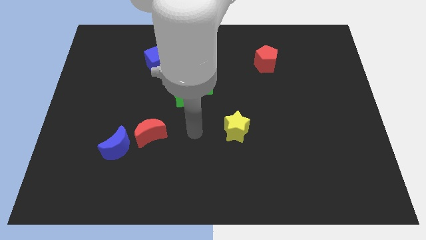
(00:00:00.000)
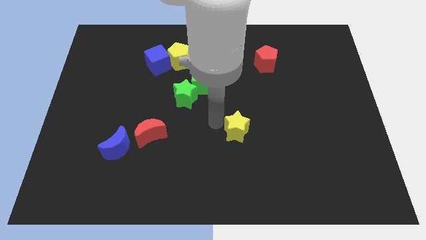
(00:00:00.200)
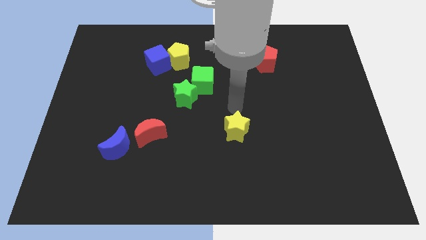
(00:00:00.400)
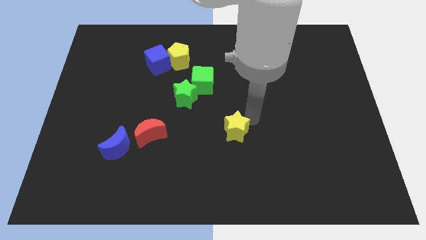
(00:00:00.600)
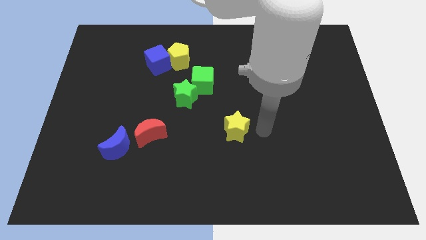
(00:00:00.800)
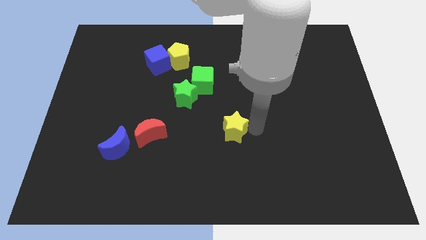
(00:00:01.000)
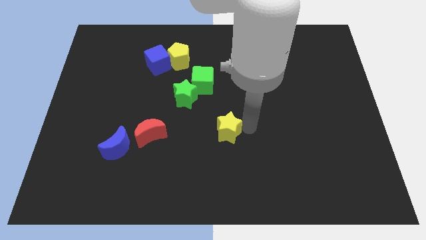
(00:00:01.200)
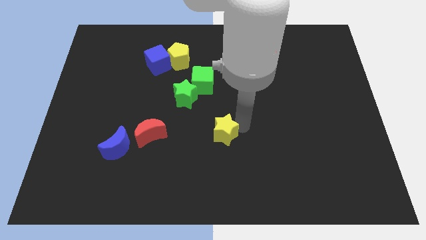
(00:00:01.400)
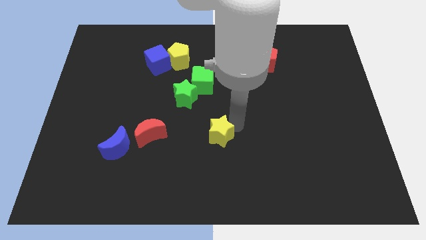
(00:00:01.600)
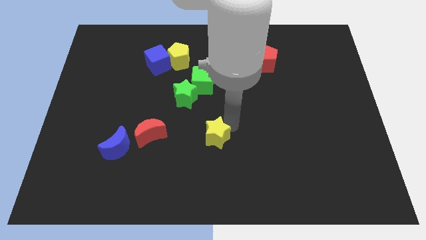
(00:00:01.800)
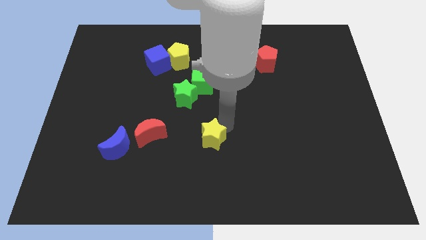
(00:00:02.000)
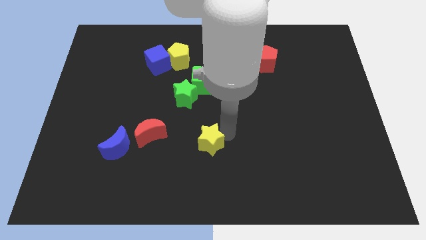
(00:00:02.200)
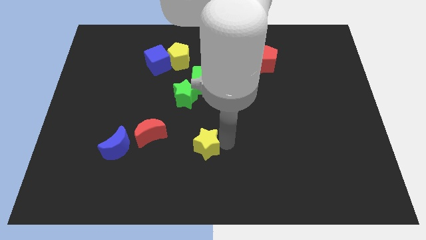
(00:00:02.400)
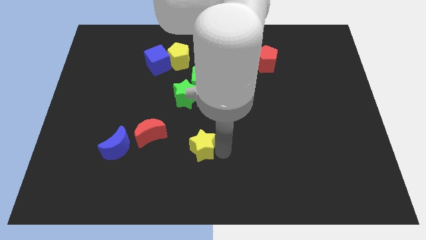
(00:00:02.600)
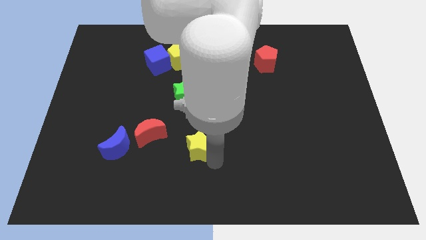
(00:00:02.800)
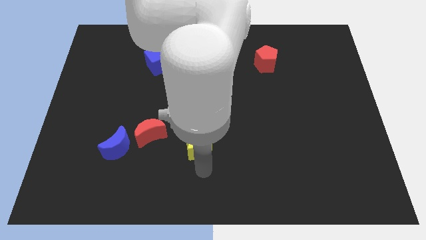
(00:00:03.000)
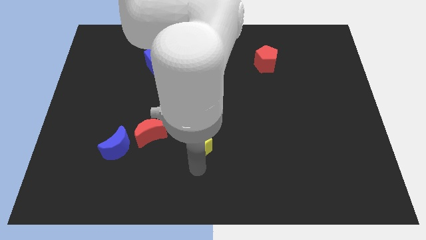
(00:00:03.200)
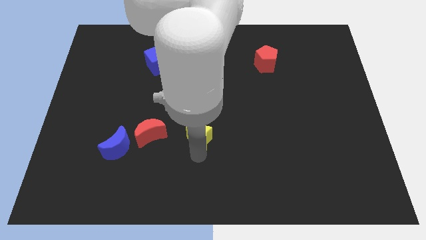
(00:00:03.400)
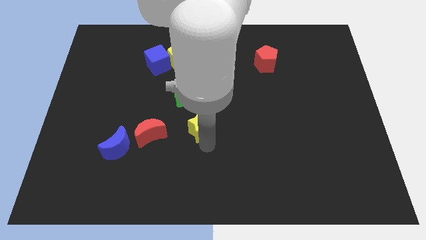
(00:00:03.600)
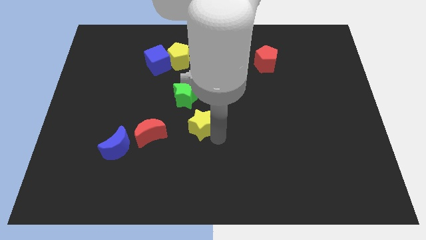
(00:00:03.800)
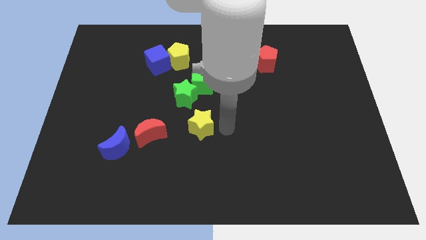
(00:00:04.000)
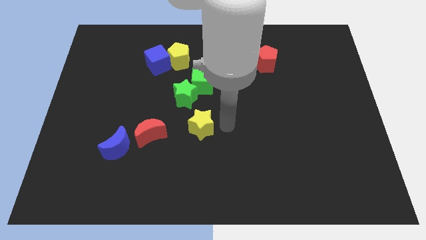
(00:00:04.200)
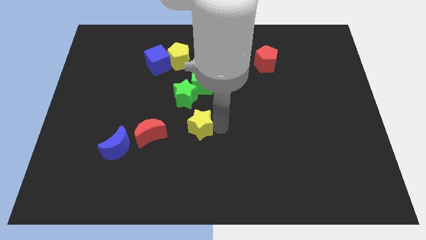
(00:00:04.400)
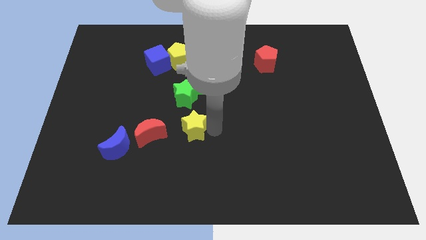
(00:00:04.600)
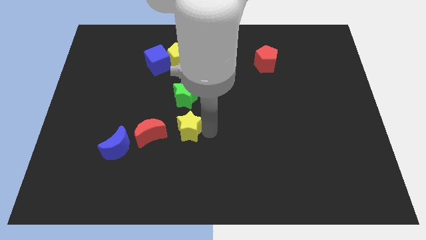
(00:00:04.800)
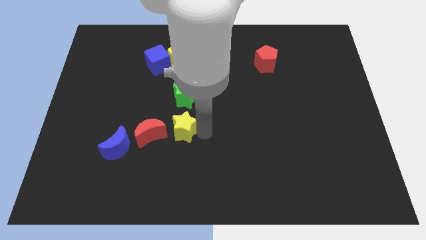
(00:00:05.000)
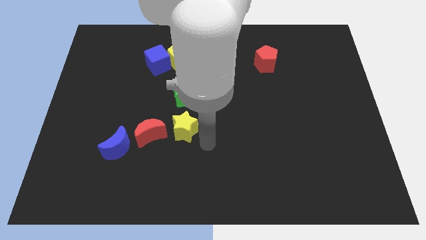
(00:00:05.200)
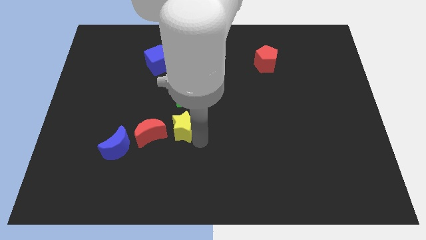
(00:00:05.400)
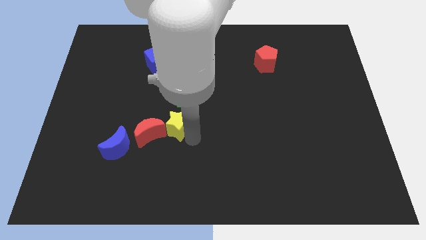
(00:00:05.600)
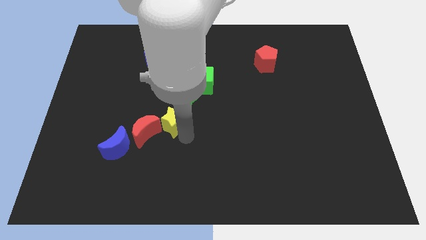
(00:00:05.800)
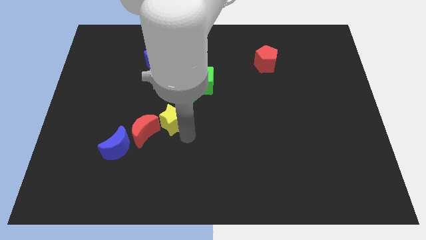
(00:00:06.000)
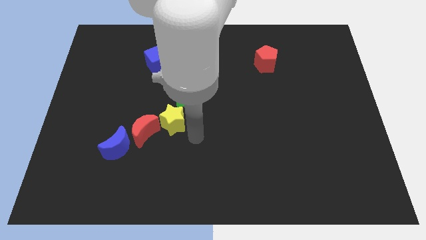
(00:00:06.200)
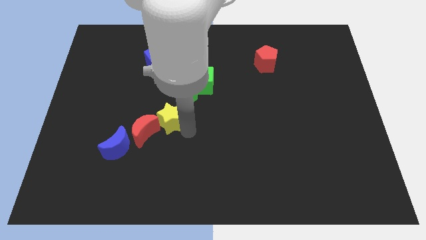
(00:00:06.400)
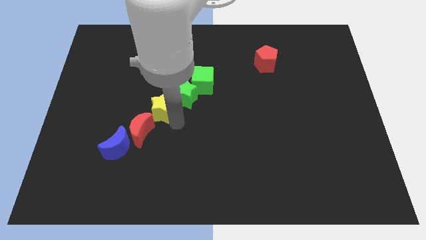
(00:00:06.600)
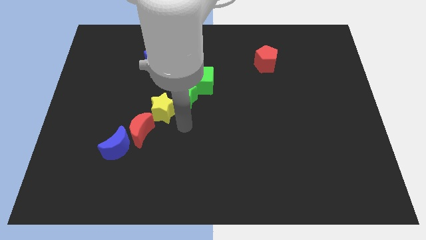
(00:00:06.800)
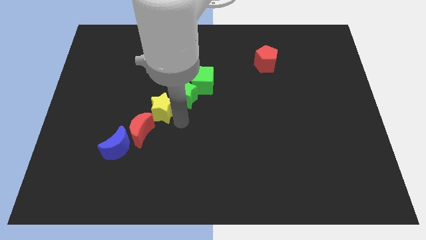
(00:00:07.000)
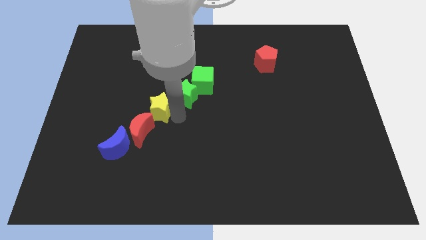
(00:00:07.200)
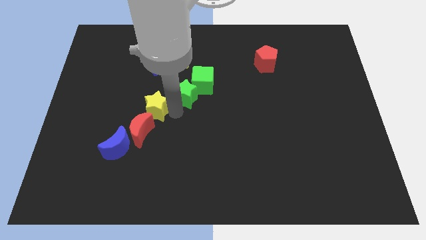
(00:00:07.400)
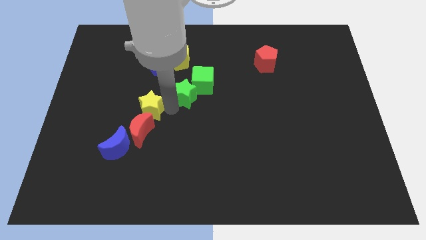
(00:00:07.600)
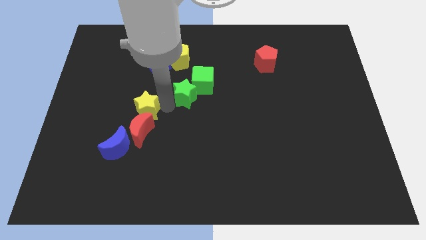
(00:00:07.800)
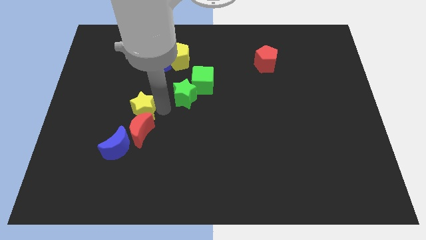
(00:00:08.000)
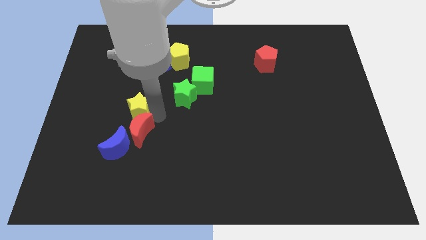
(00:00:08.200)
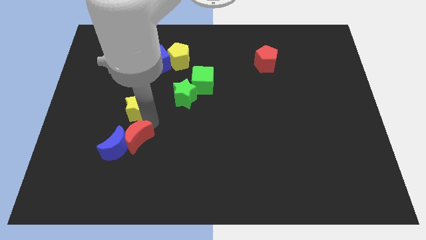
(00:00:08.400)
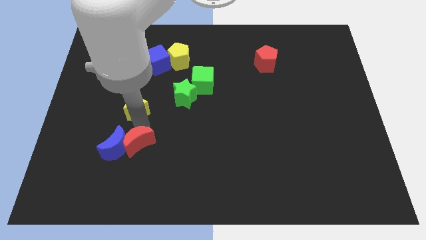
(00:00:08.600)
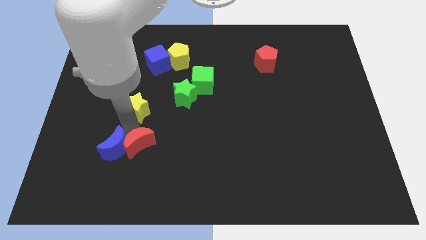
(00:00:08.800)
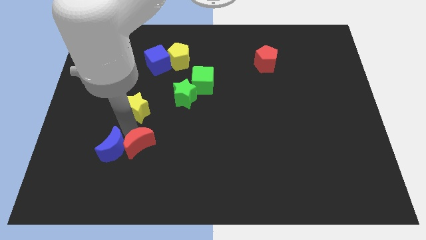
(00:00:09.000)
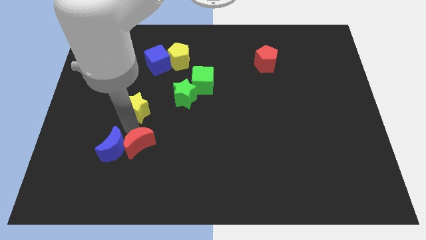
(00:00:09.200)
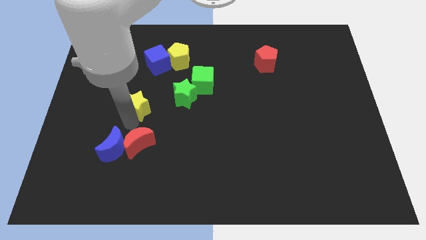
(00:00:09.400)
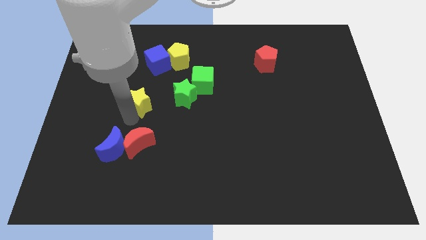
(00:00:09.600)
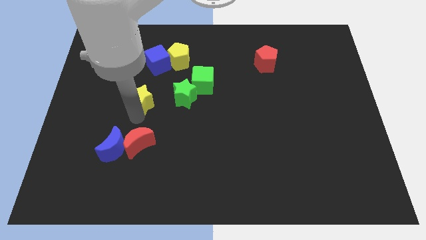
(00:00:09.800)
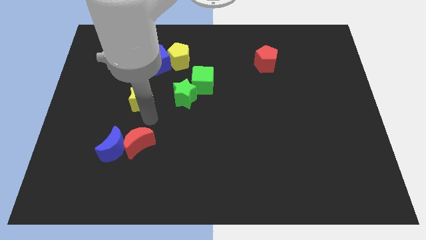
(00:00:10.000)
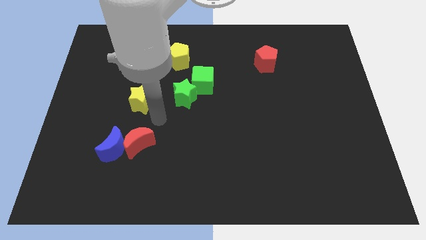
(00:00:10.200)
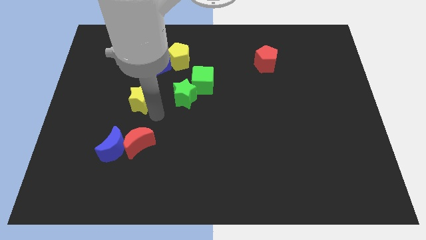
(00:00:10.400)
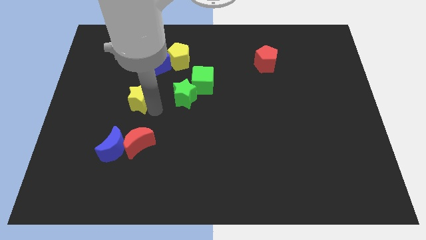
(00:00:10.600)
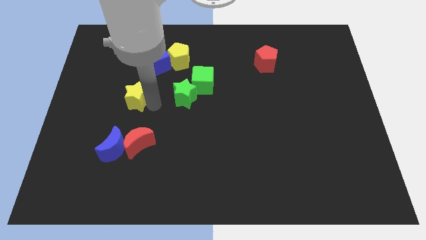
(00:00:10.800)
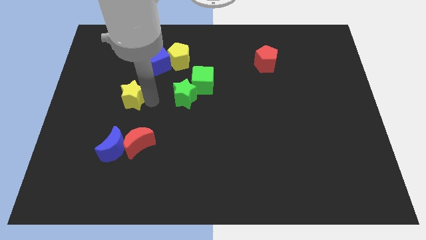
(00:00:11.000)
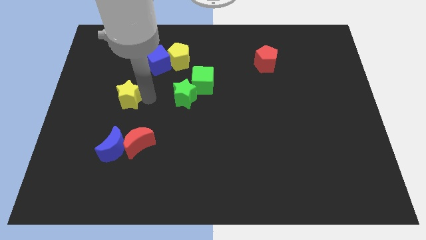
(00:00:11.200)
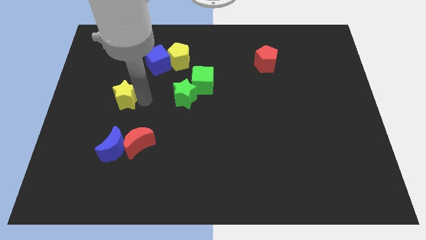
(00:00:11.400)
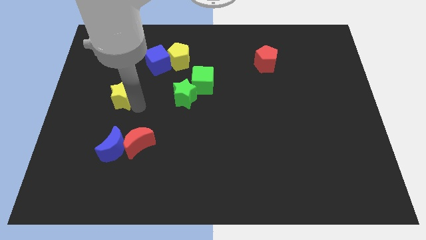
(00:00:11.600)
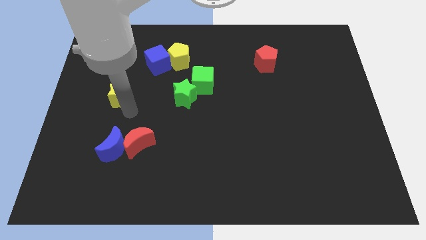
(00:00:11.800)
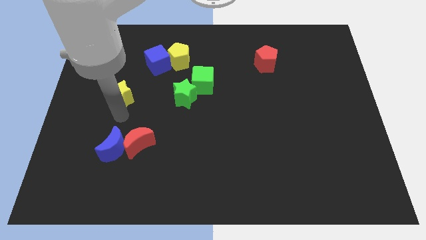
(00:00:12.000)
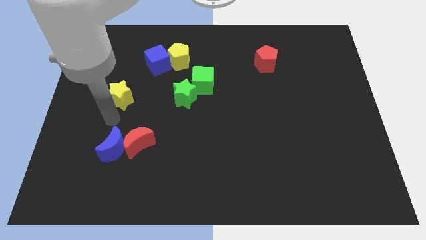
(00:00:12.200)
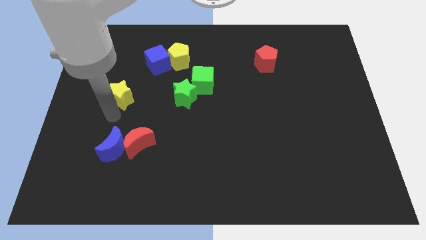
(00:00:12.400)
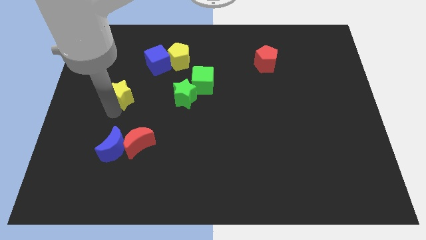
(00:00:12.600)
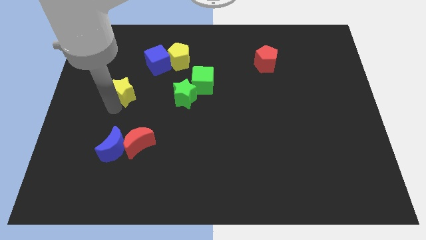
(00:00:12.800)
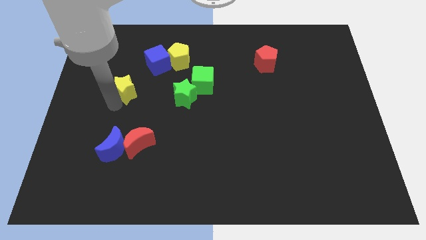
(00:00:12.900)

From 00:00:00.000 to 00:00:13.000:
push the yellow star diagonally upwards and to the left

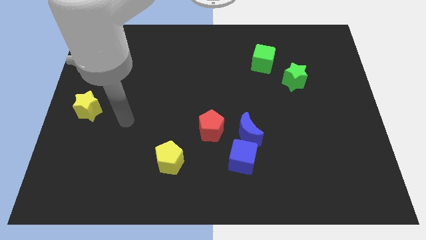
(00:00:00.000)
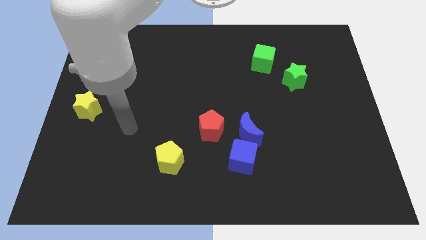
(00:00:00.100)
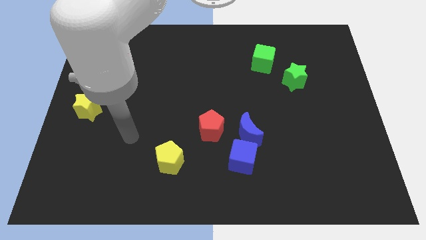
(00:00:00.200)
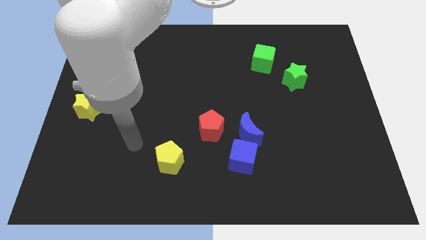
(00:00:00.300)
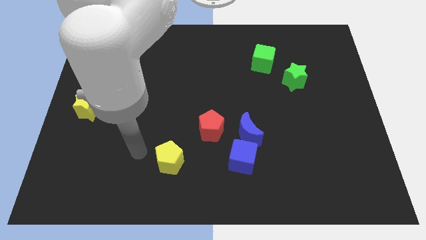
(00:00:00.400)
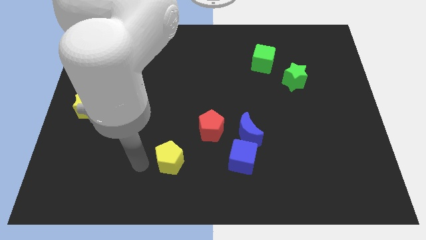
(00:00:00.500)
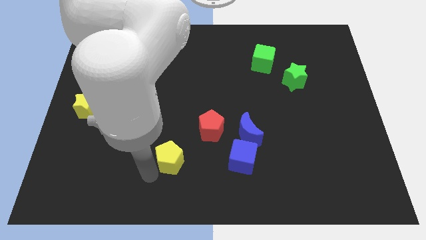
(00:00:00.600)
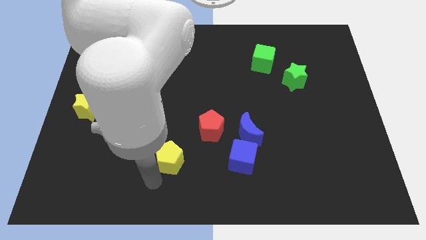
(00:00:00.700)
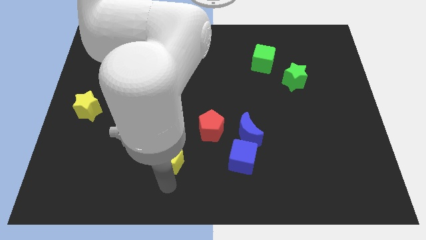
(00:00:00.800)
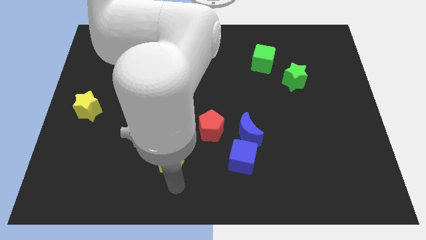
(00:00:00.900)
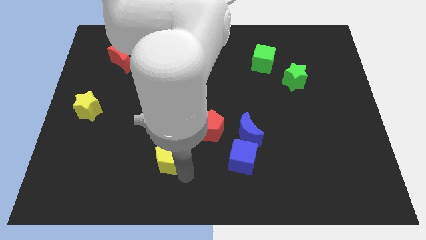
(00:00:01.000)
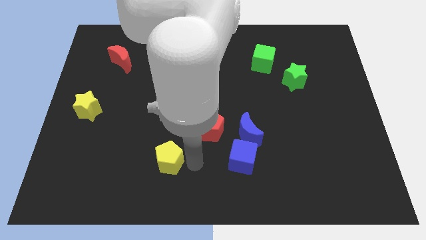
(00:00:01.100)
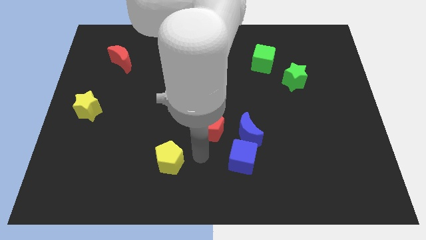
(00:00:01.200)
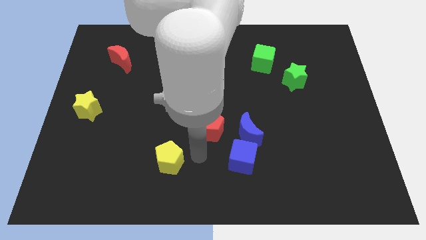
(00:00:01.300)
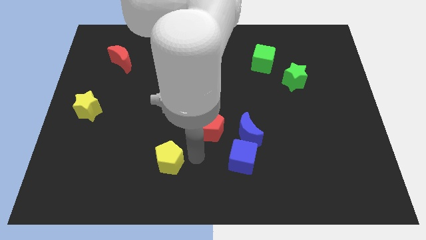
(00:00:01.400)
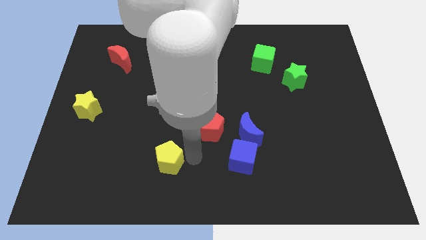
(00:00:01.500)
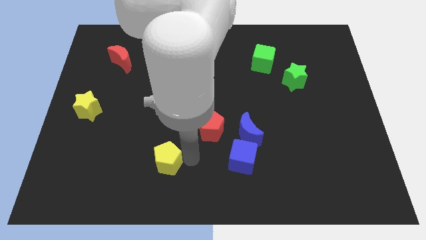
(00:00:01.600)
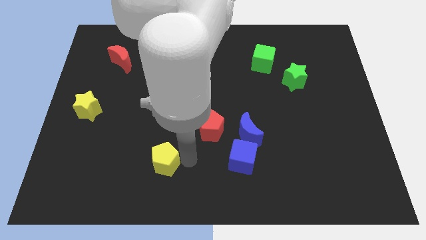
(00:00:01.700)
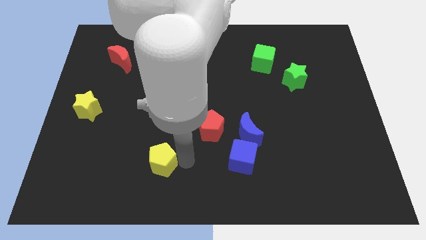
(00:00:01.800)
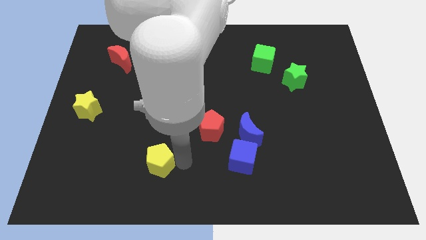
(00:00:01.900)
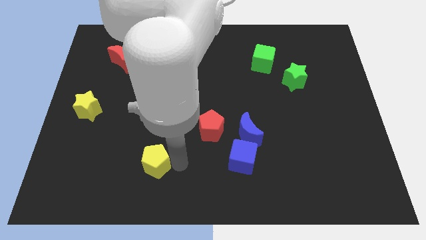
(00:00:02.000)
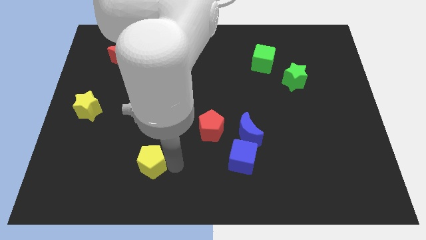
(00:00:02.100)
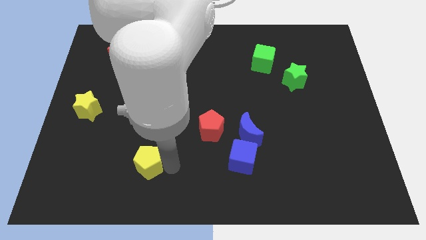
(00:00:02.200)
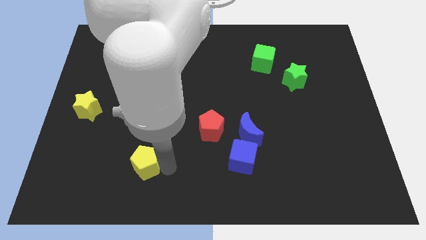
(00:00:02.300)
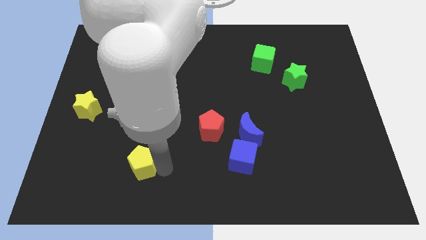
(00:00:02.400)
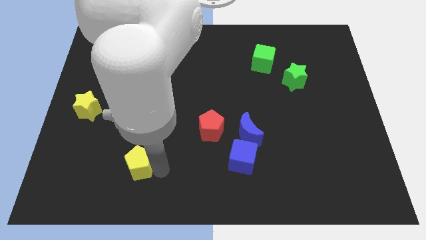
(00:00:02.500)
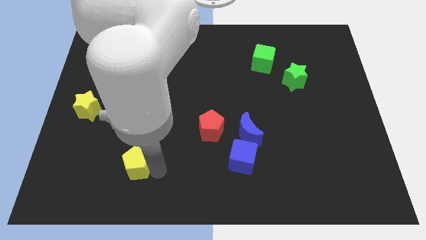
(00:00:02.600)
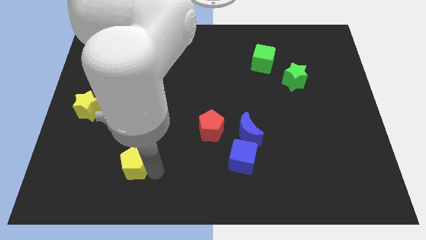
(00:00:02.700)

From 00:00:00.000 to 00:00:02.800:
slide the yellow pentagon left somewhat
